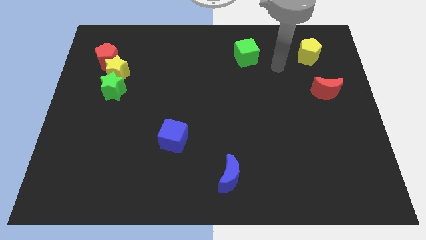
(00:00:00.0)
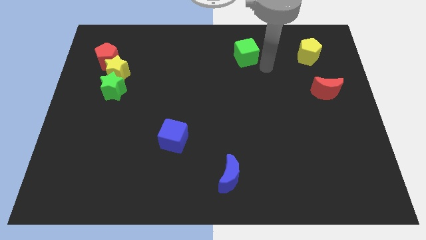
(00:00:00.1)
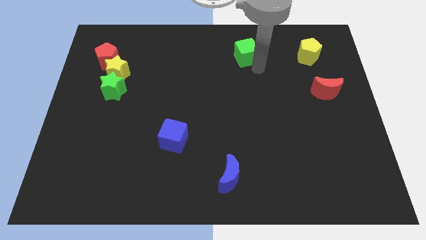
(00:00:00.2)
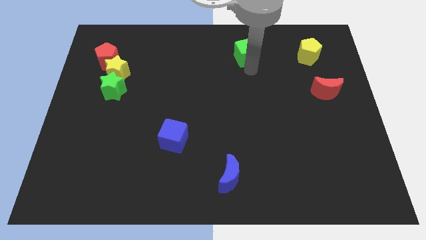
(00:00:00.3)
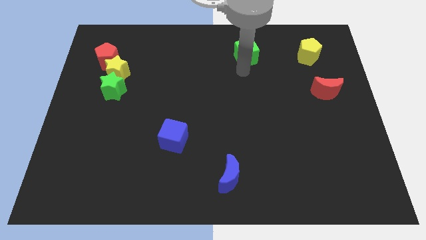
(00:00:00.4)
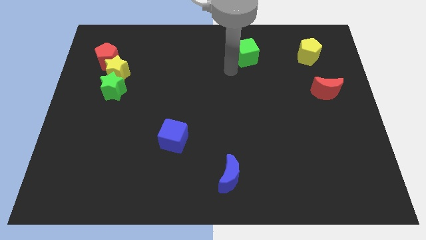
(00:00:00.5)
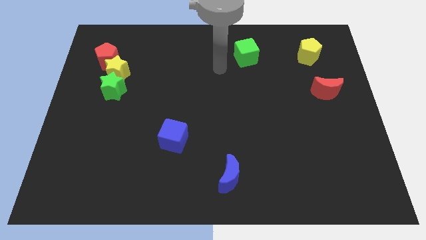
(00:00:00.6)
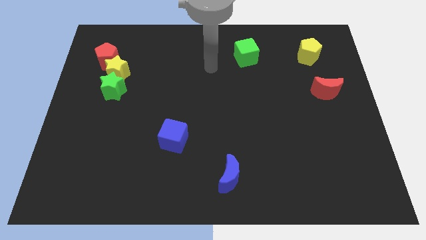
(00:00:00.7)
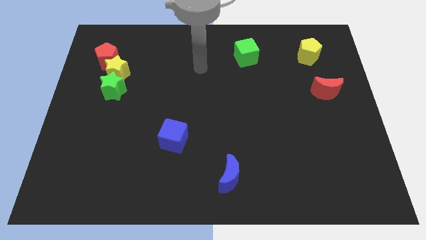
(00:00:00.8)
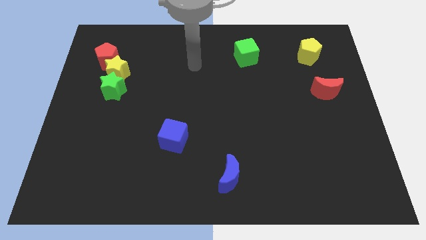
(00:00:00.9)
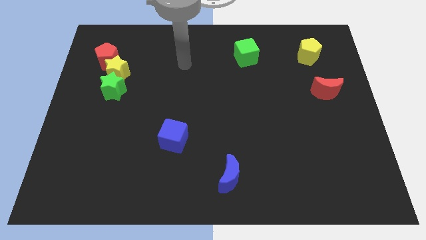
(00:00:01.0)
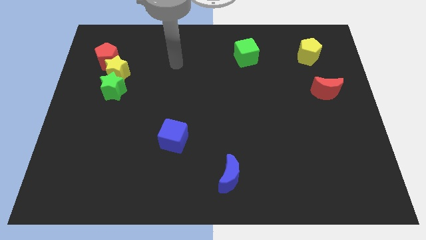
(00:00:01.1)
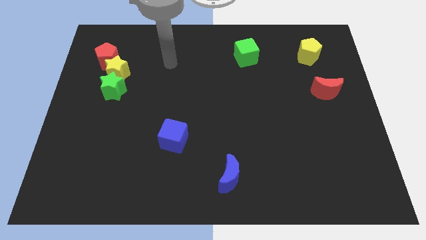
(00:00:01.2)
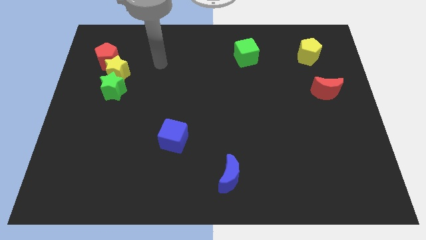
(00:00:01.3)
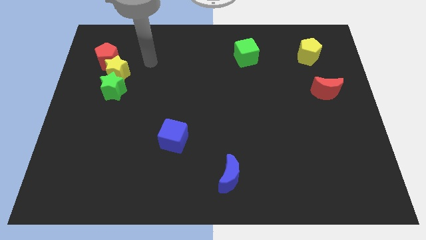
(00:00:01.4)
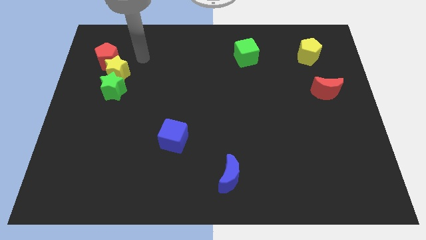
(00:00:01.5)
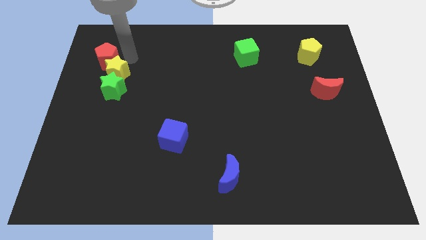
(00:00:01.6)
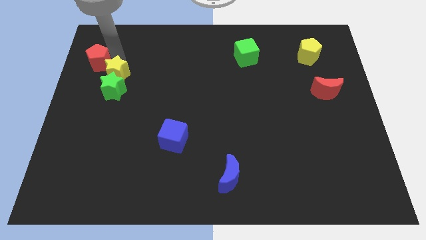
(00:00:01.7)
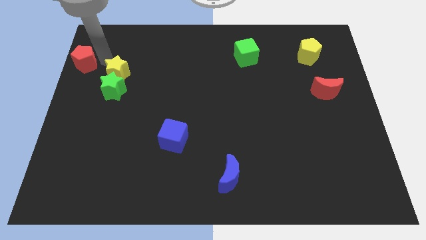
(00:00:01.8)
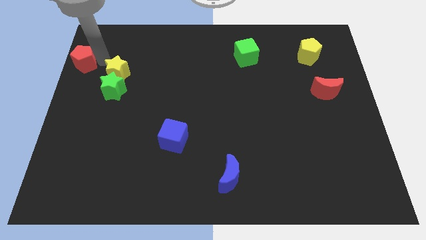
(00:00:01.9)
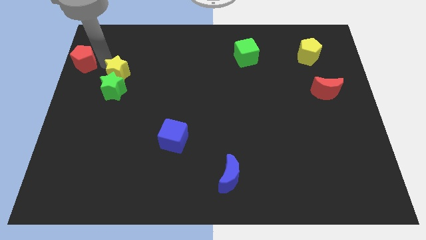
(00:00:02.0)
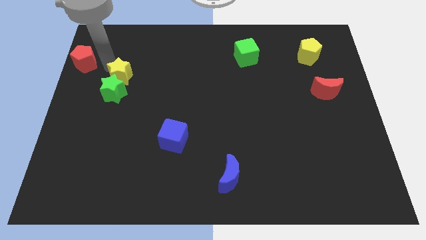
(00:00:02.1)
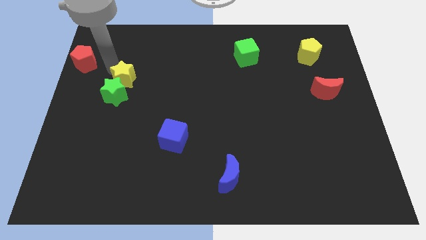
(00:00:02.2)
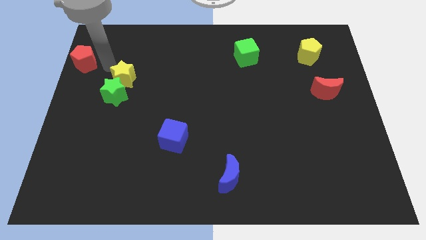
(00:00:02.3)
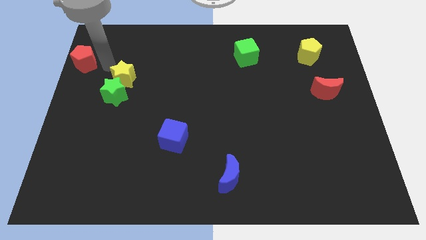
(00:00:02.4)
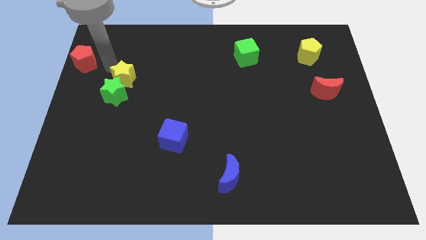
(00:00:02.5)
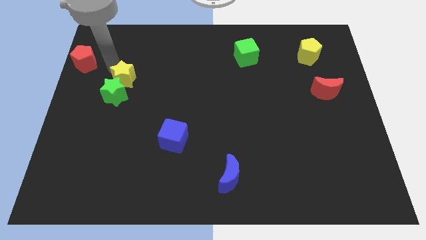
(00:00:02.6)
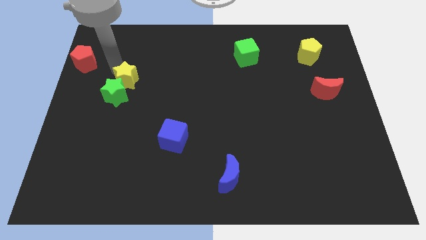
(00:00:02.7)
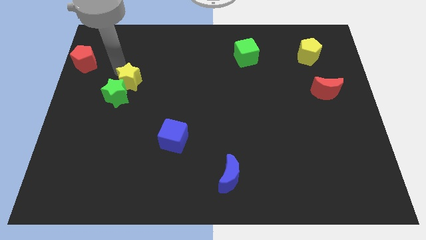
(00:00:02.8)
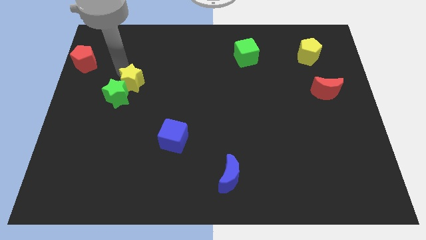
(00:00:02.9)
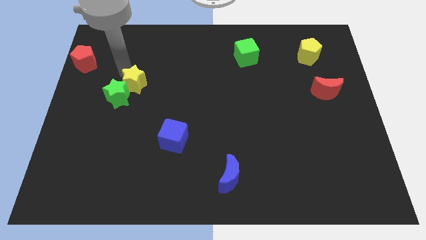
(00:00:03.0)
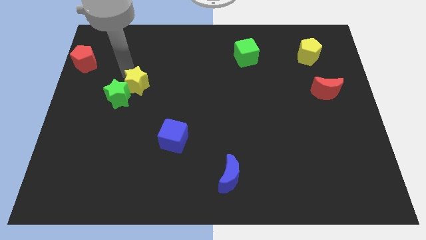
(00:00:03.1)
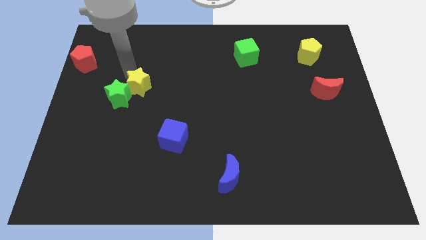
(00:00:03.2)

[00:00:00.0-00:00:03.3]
push the yellow star a little bit down and to the right diagonally

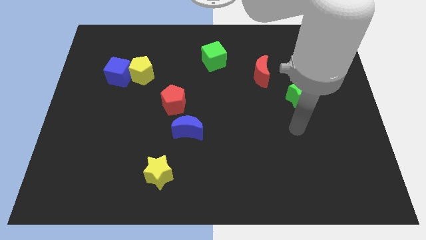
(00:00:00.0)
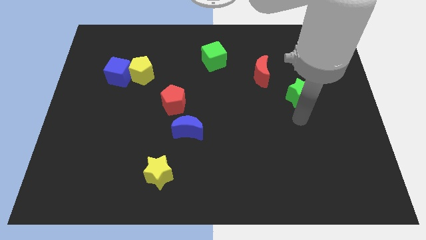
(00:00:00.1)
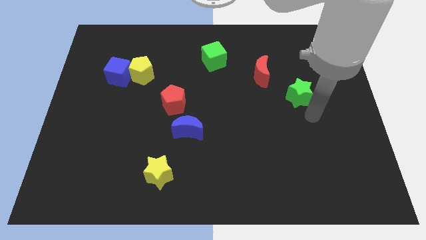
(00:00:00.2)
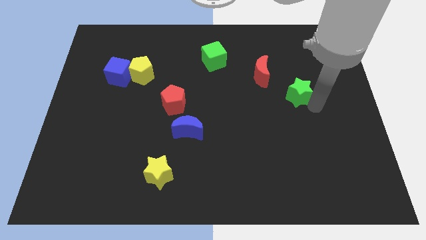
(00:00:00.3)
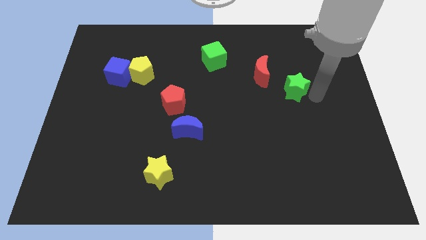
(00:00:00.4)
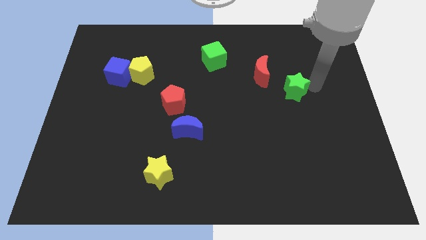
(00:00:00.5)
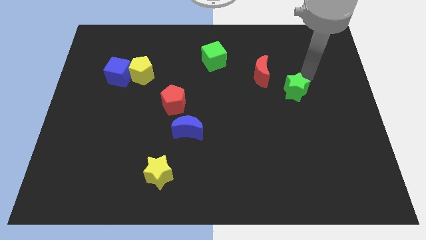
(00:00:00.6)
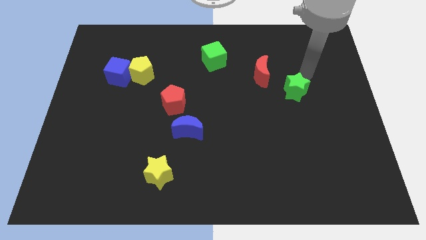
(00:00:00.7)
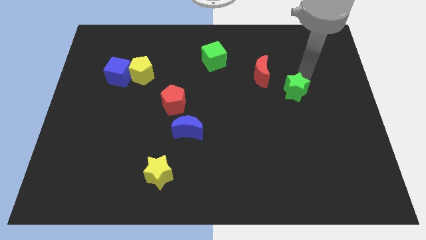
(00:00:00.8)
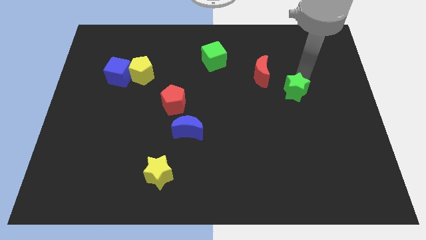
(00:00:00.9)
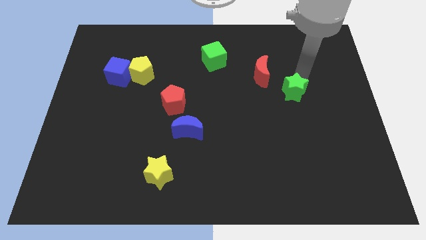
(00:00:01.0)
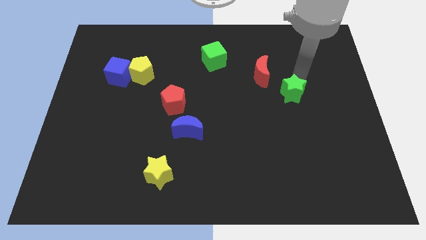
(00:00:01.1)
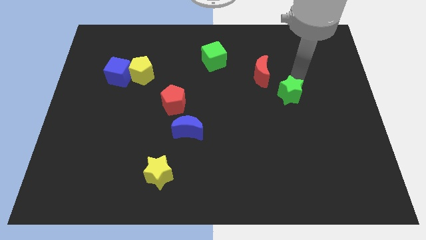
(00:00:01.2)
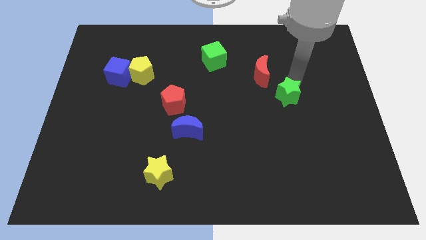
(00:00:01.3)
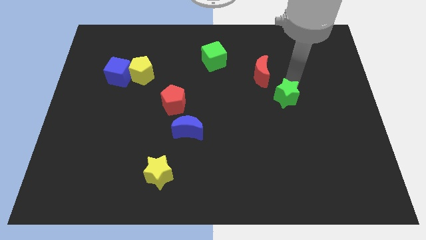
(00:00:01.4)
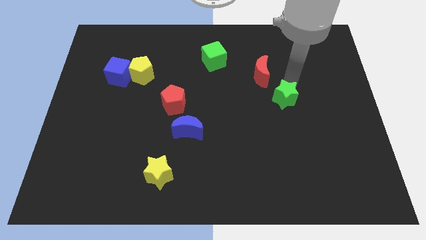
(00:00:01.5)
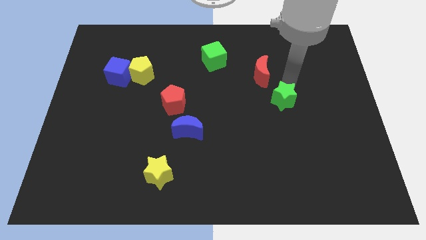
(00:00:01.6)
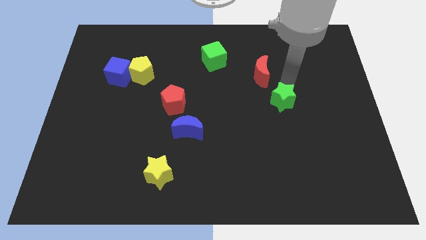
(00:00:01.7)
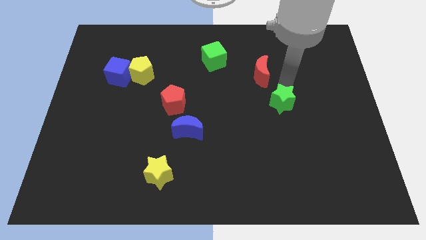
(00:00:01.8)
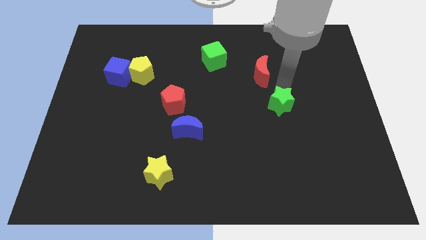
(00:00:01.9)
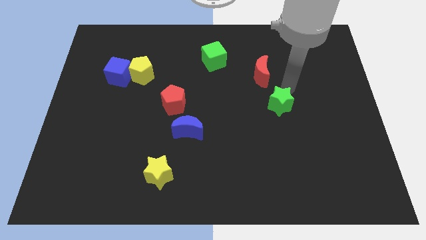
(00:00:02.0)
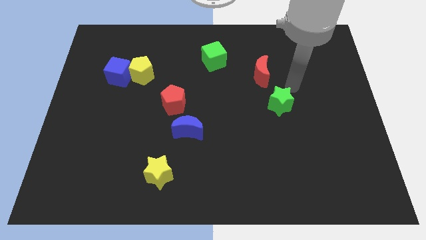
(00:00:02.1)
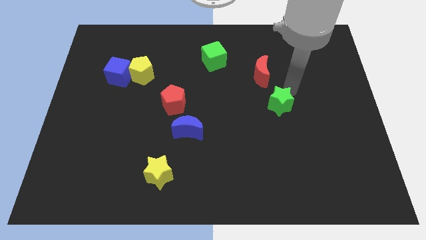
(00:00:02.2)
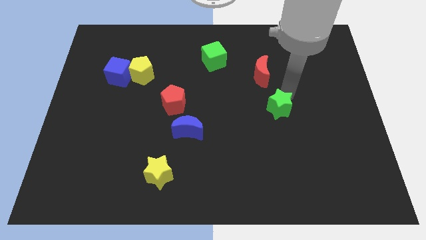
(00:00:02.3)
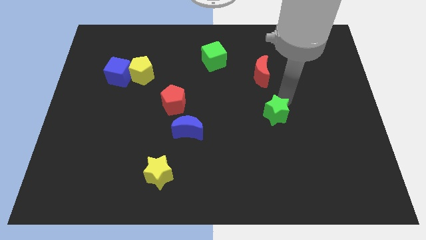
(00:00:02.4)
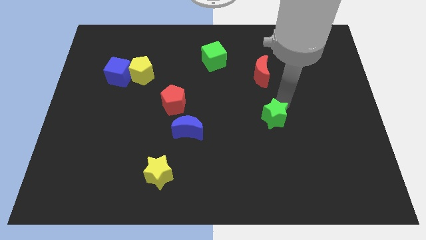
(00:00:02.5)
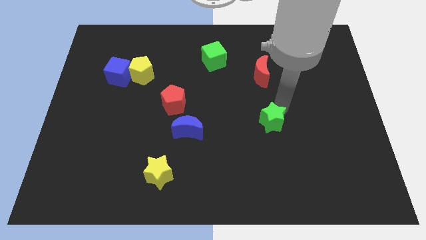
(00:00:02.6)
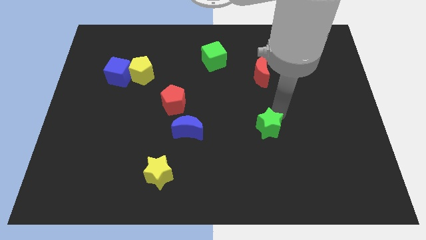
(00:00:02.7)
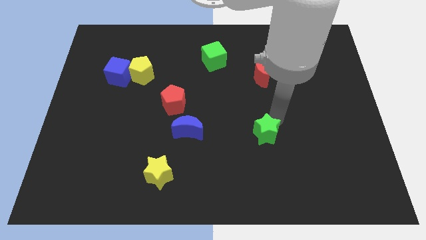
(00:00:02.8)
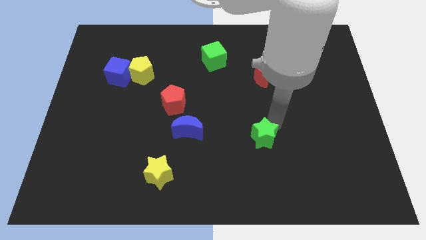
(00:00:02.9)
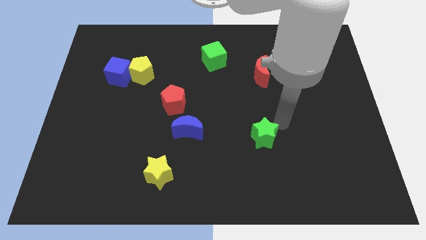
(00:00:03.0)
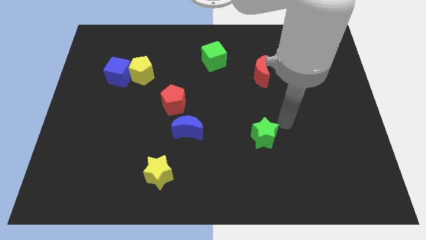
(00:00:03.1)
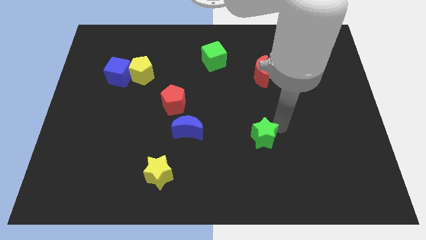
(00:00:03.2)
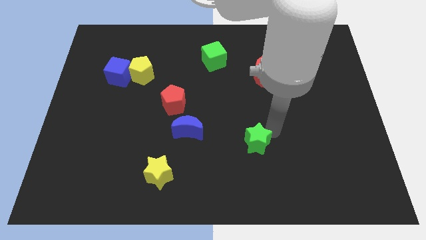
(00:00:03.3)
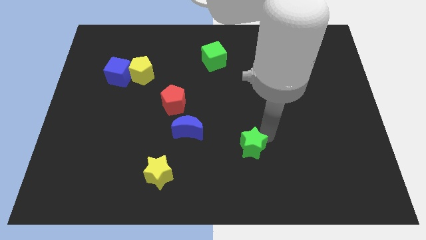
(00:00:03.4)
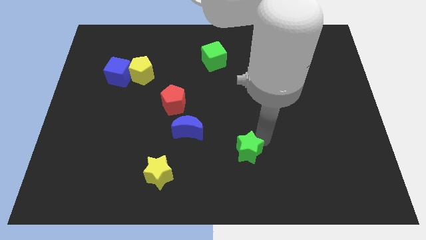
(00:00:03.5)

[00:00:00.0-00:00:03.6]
slide the green star down and to the left diagonally

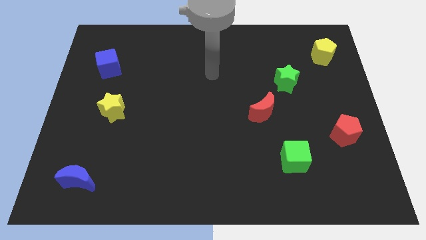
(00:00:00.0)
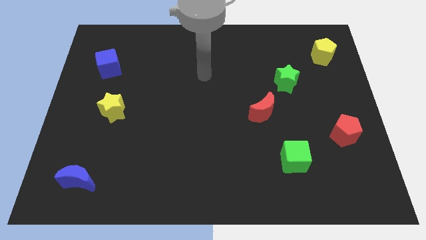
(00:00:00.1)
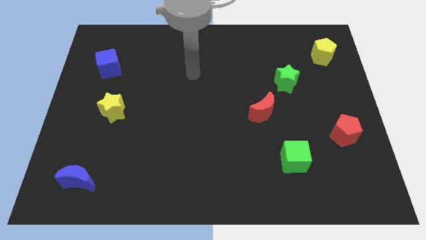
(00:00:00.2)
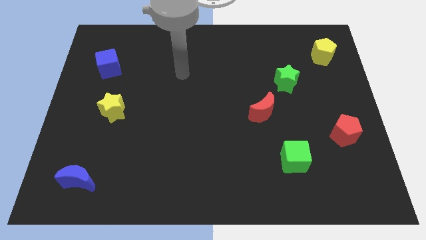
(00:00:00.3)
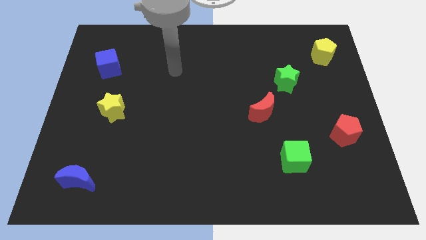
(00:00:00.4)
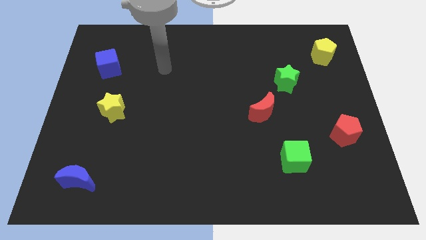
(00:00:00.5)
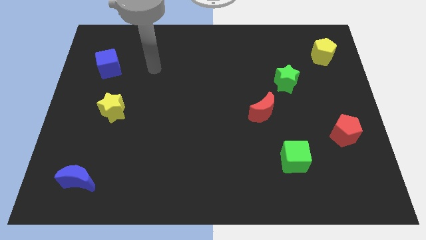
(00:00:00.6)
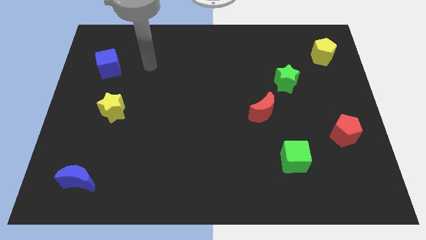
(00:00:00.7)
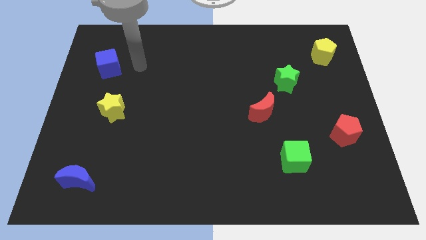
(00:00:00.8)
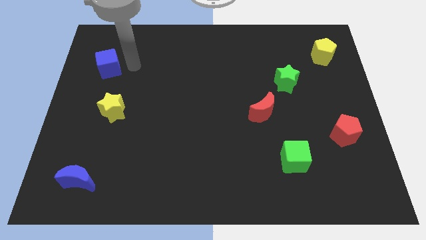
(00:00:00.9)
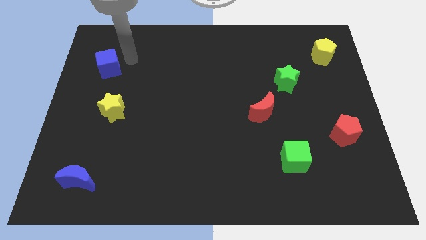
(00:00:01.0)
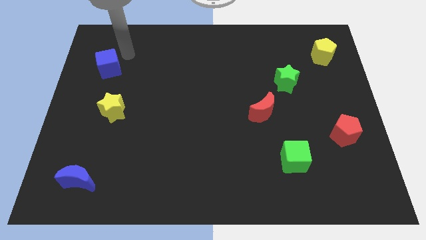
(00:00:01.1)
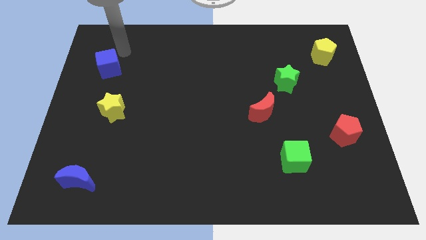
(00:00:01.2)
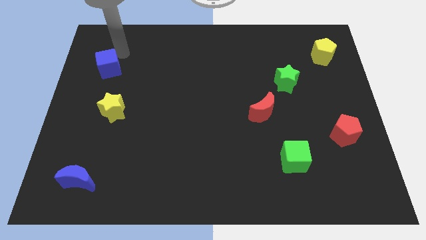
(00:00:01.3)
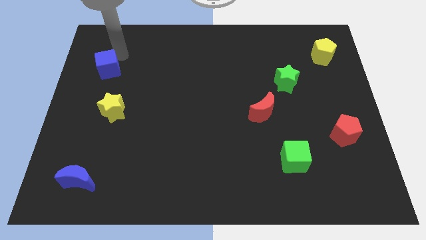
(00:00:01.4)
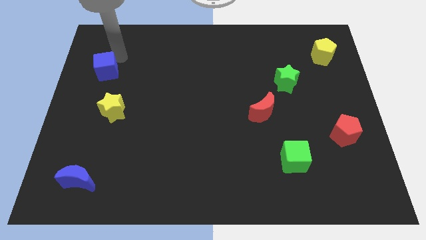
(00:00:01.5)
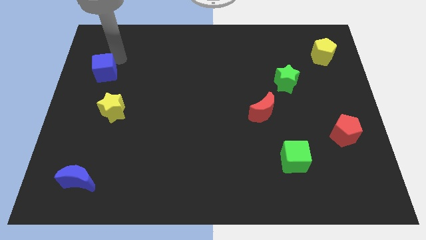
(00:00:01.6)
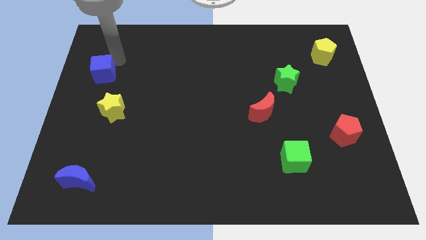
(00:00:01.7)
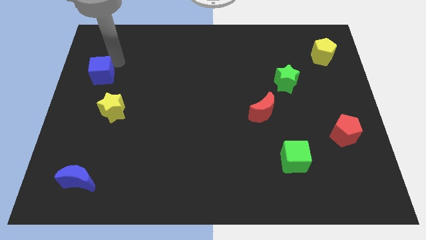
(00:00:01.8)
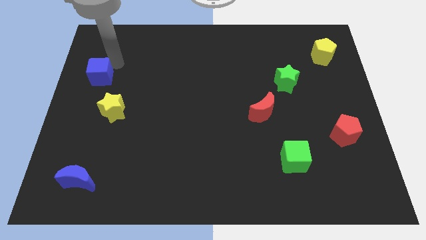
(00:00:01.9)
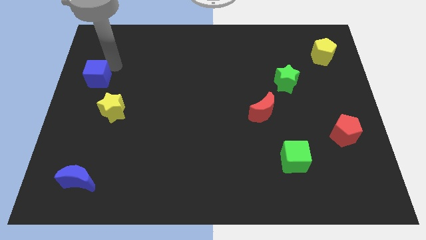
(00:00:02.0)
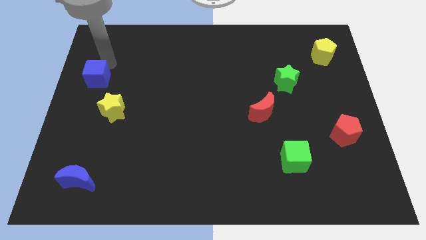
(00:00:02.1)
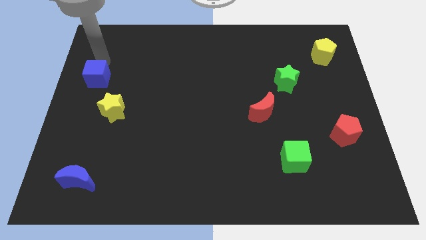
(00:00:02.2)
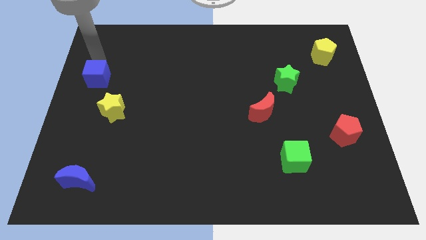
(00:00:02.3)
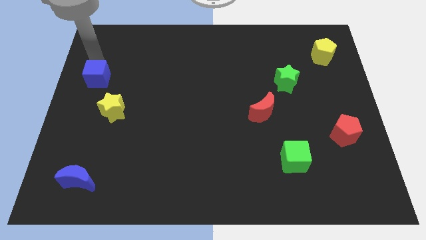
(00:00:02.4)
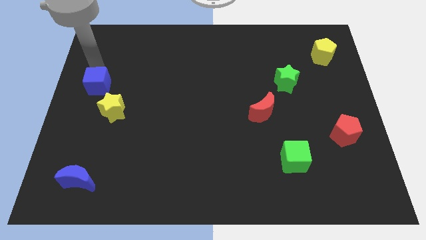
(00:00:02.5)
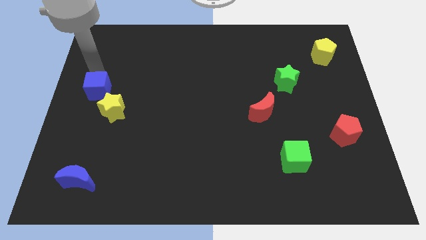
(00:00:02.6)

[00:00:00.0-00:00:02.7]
slightly slide the blue cube down
